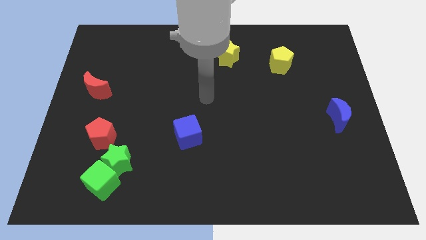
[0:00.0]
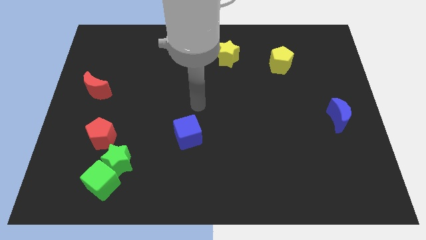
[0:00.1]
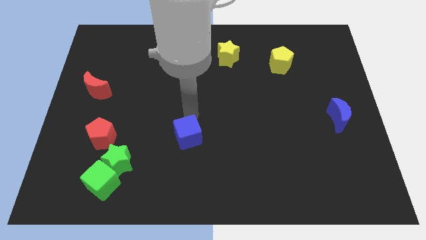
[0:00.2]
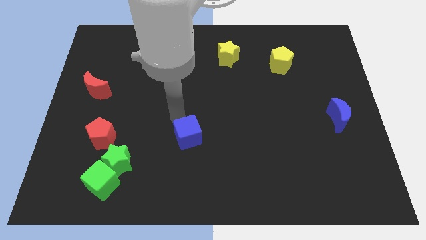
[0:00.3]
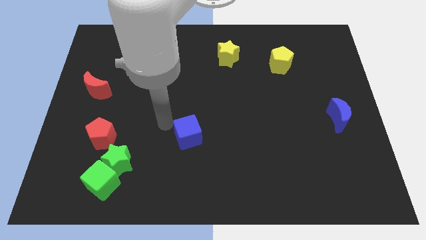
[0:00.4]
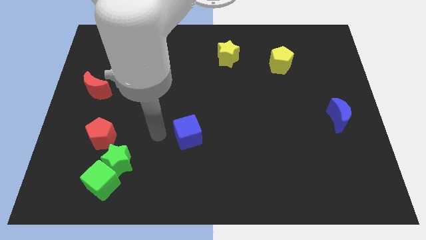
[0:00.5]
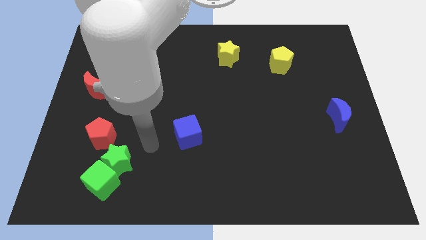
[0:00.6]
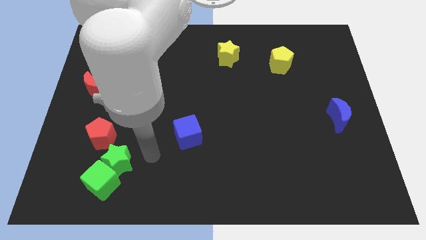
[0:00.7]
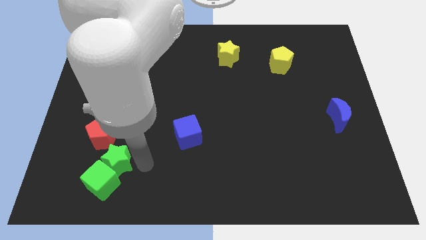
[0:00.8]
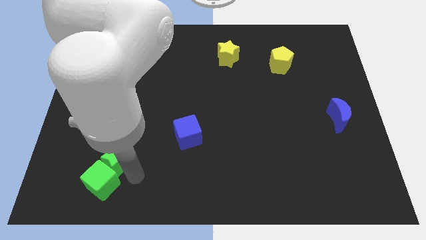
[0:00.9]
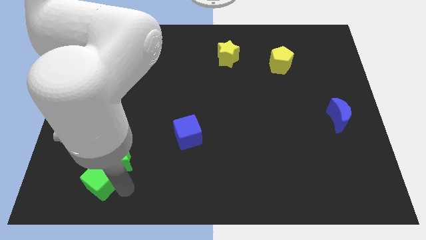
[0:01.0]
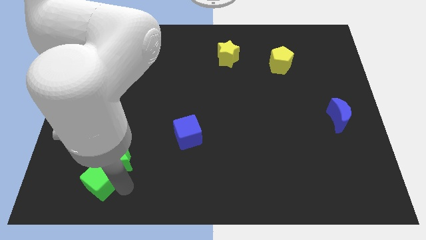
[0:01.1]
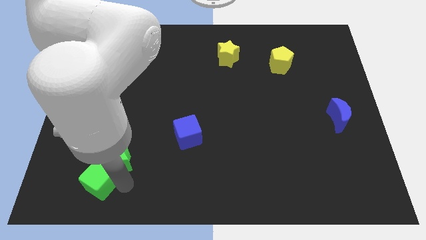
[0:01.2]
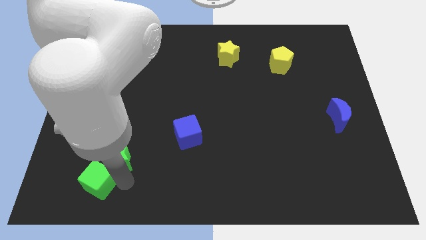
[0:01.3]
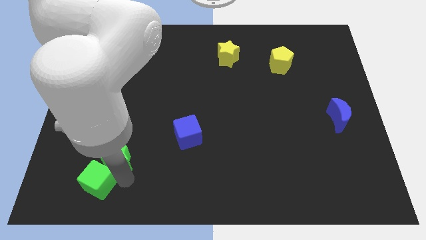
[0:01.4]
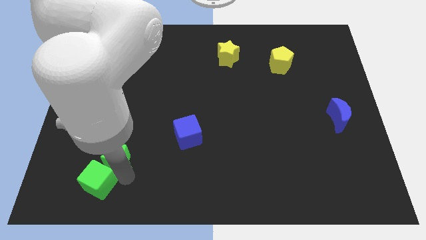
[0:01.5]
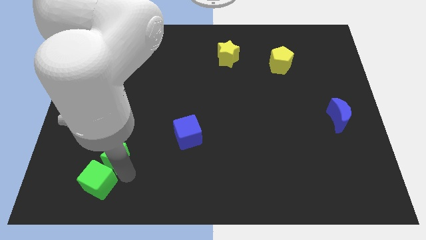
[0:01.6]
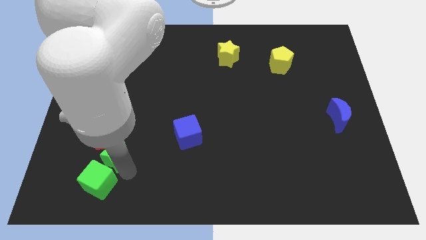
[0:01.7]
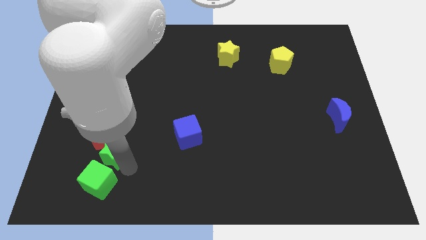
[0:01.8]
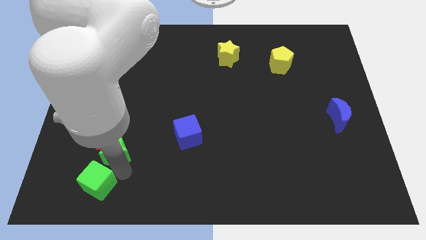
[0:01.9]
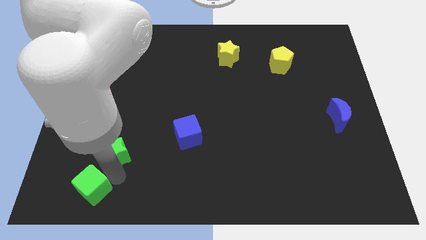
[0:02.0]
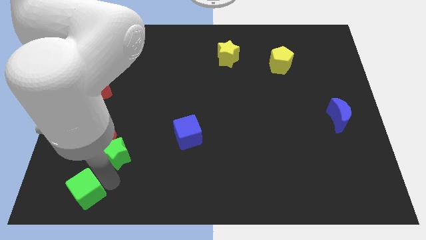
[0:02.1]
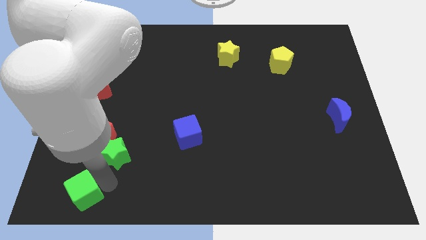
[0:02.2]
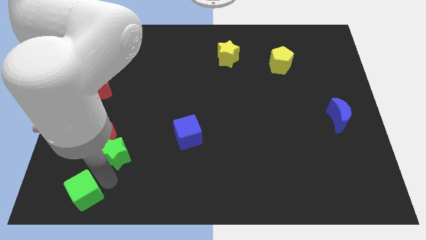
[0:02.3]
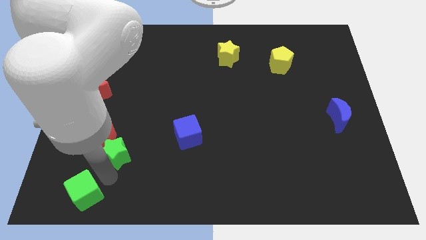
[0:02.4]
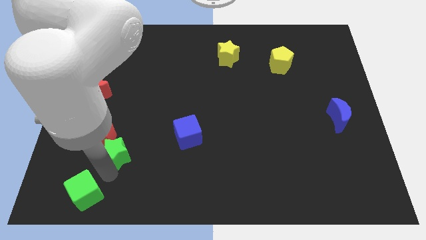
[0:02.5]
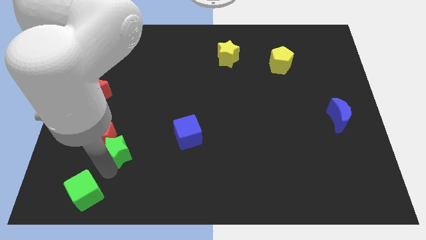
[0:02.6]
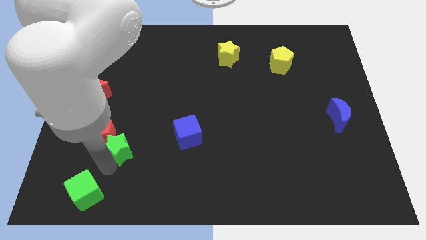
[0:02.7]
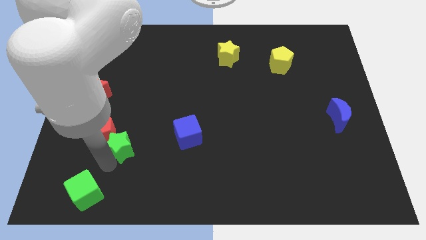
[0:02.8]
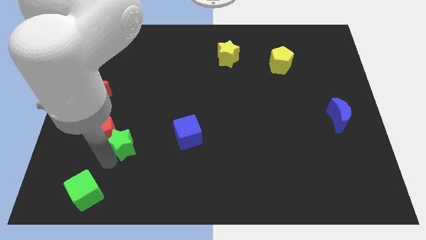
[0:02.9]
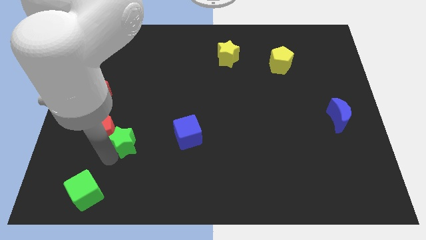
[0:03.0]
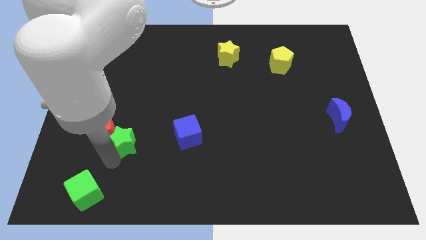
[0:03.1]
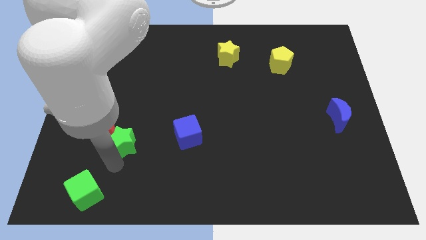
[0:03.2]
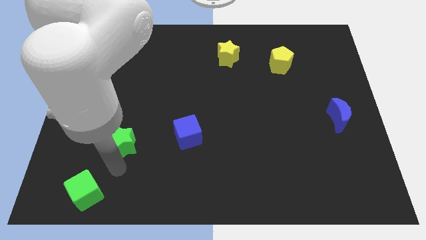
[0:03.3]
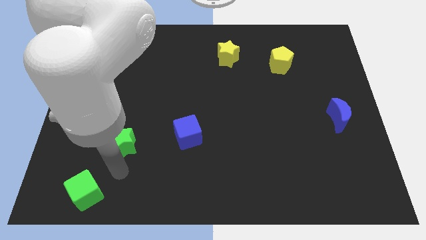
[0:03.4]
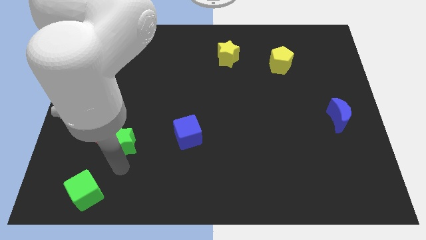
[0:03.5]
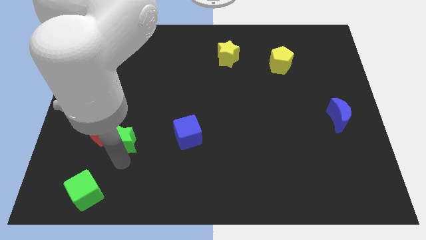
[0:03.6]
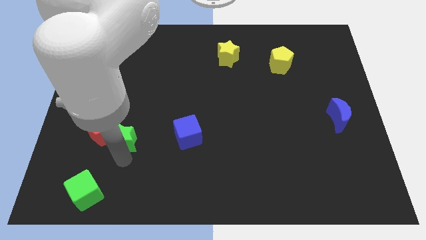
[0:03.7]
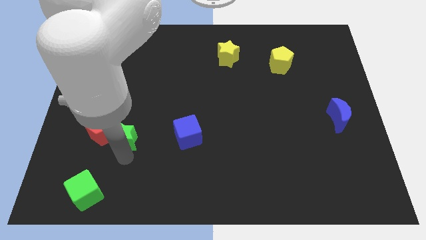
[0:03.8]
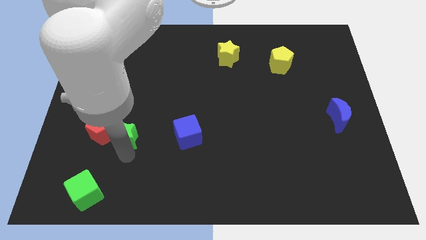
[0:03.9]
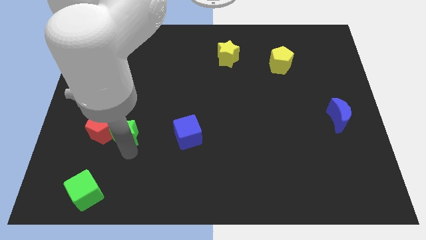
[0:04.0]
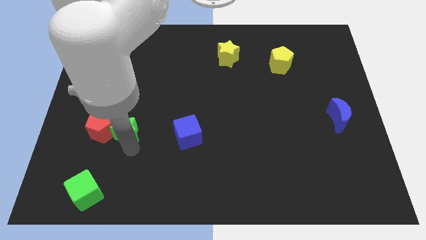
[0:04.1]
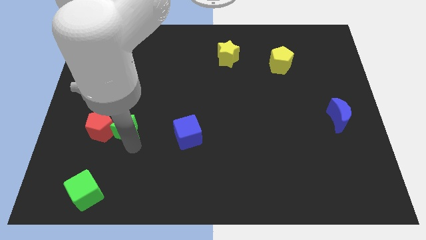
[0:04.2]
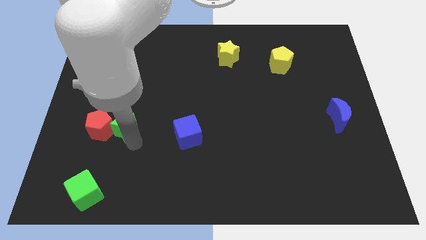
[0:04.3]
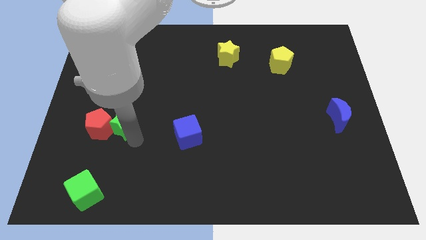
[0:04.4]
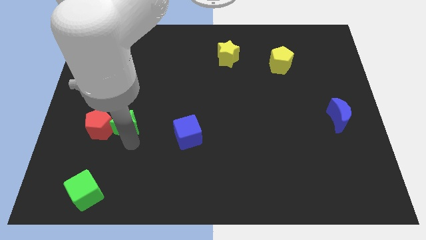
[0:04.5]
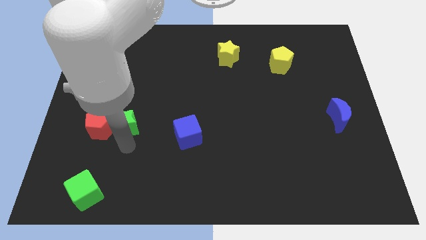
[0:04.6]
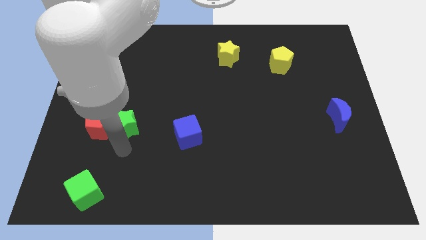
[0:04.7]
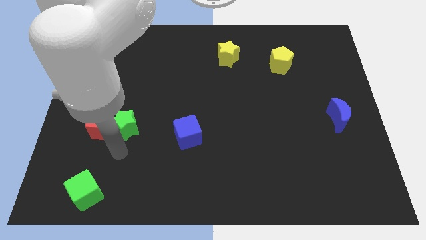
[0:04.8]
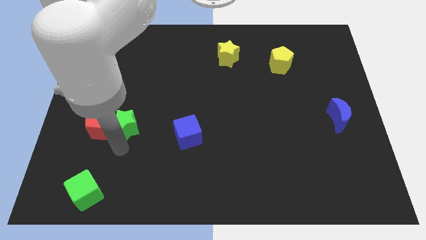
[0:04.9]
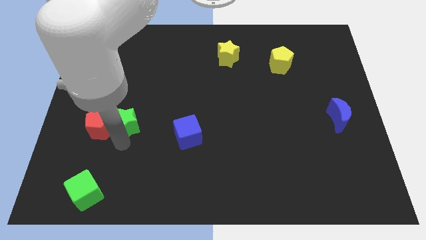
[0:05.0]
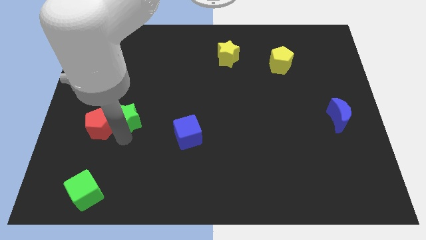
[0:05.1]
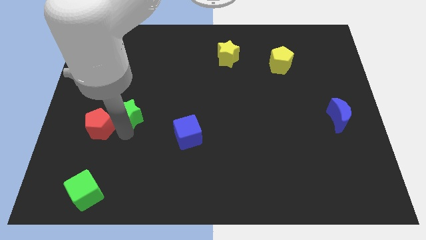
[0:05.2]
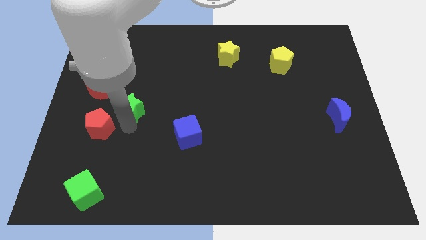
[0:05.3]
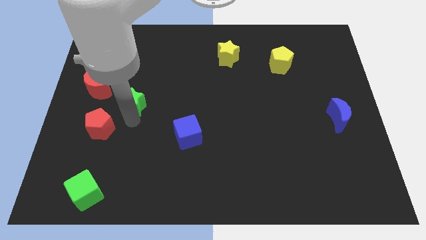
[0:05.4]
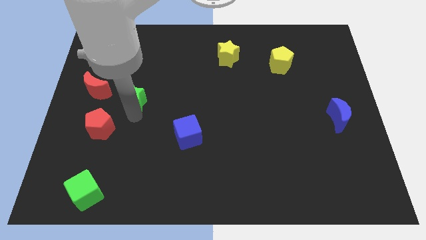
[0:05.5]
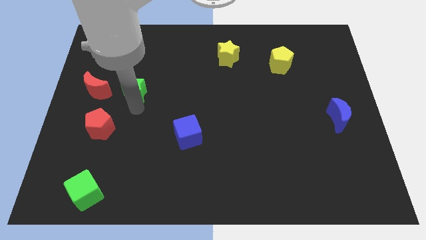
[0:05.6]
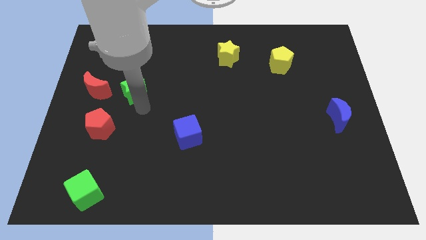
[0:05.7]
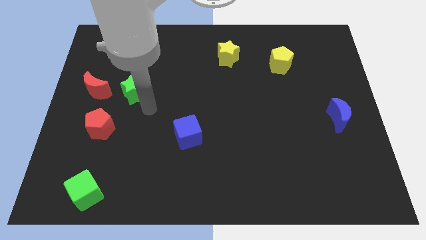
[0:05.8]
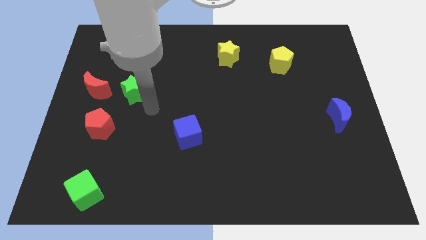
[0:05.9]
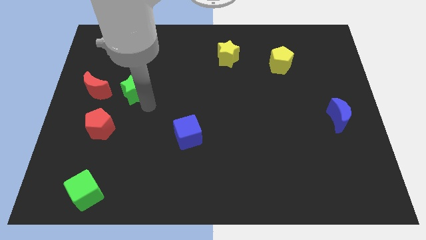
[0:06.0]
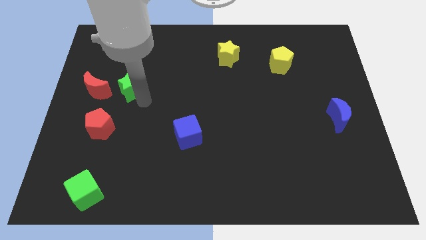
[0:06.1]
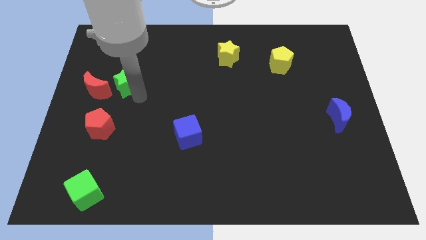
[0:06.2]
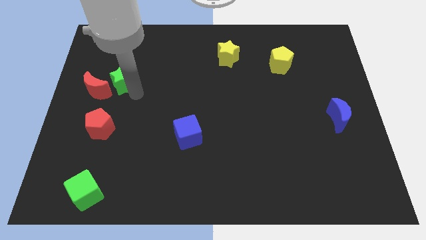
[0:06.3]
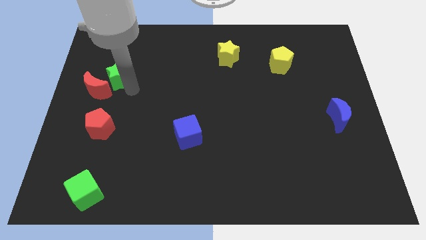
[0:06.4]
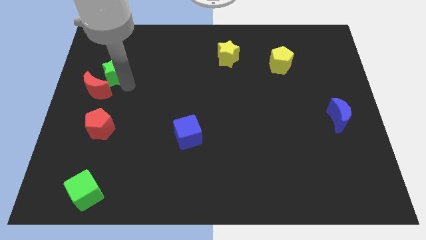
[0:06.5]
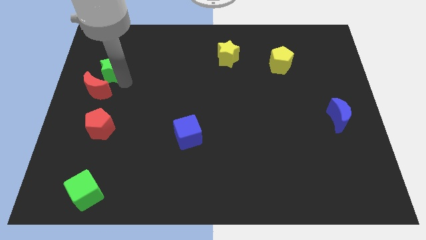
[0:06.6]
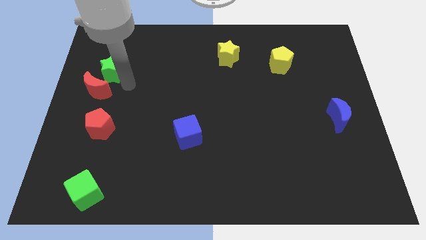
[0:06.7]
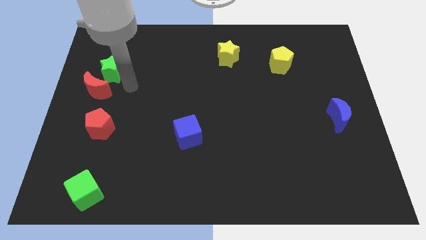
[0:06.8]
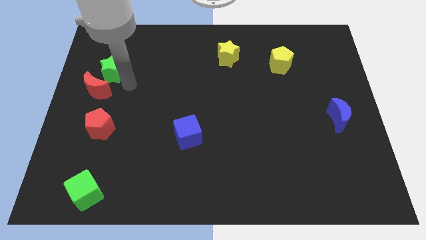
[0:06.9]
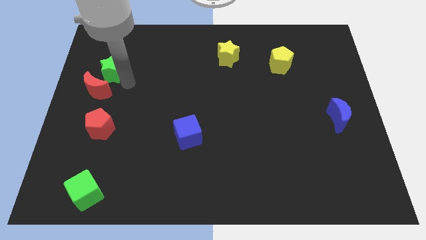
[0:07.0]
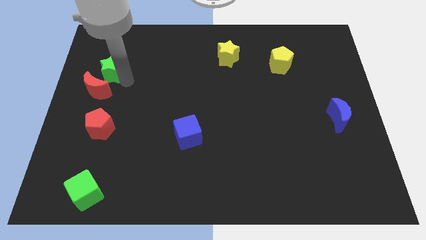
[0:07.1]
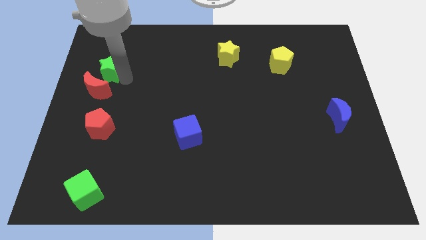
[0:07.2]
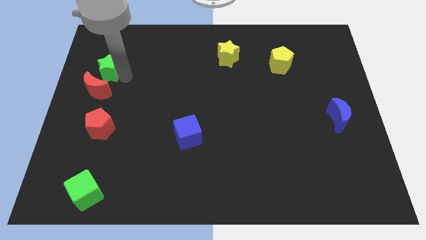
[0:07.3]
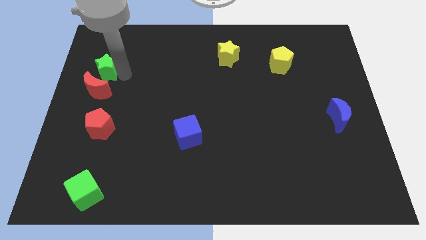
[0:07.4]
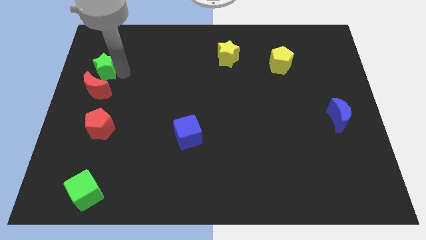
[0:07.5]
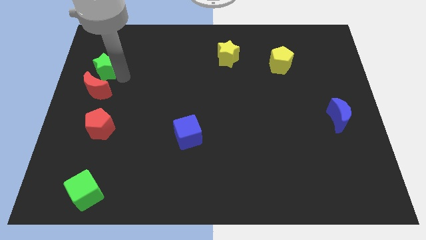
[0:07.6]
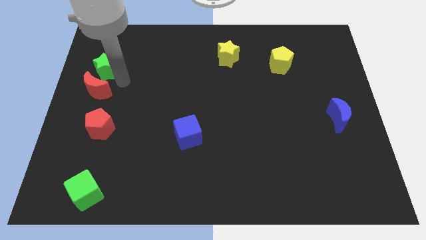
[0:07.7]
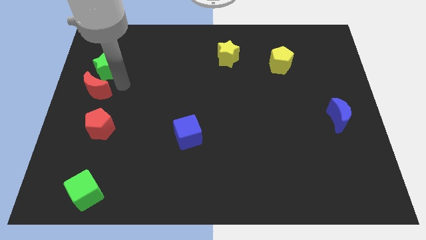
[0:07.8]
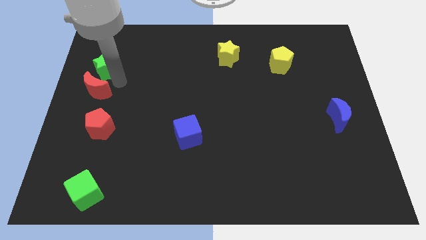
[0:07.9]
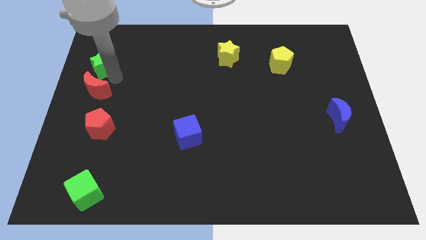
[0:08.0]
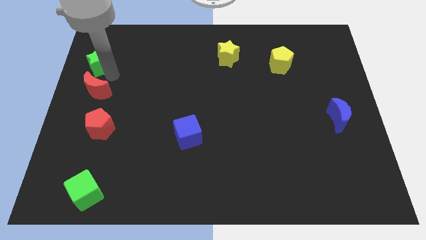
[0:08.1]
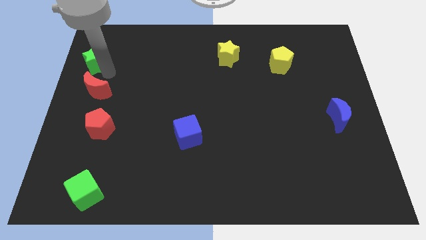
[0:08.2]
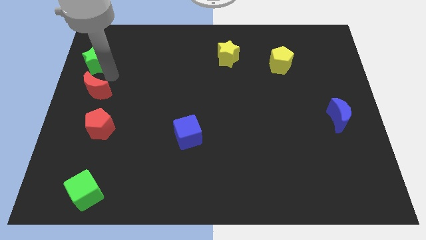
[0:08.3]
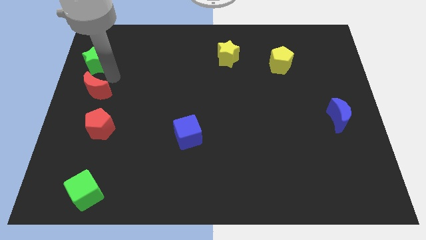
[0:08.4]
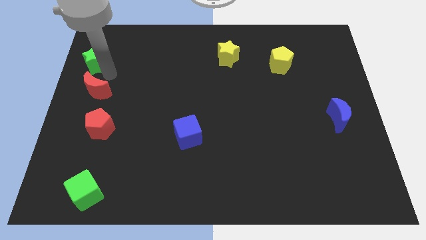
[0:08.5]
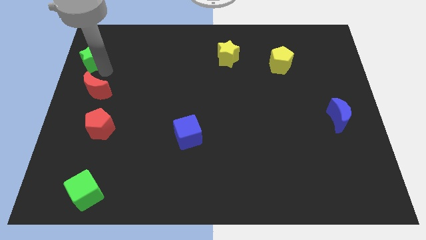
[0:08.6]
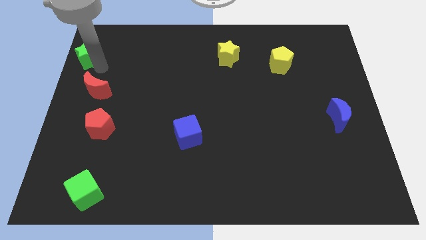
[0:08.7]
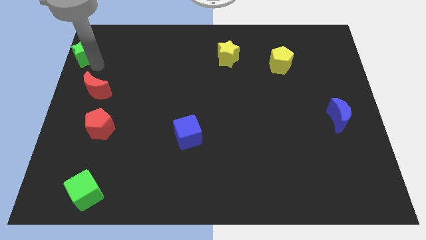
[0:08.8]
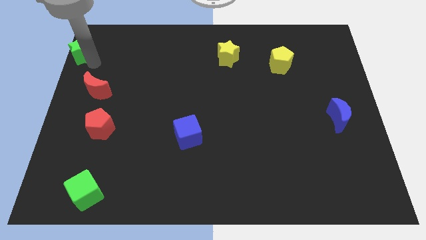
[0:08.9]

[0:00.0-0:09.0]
slide the green star to the top left
